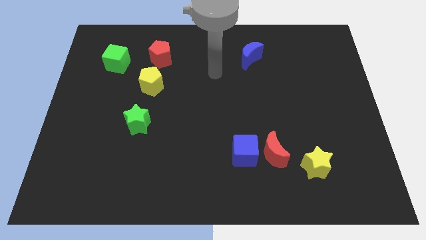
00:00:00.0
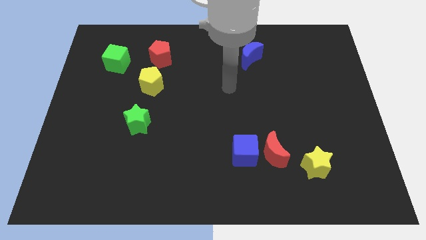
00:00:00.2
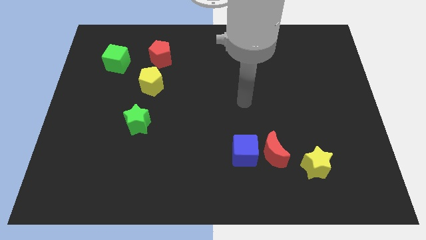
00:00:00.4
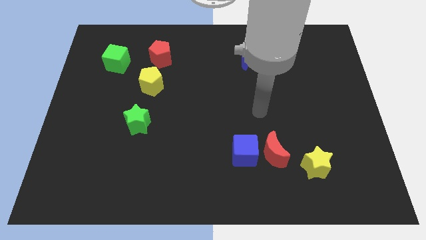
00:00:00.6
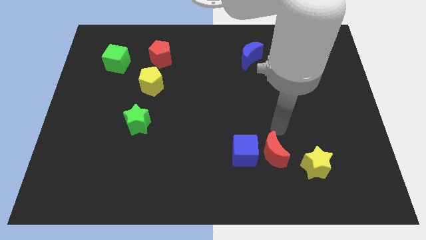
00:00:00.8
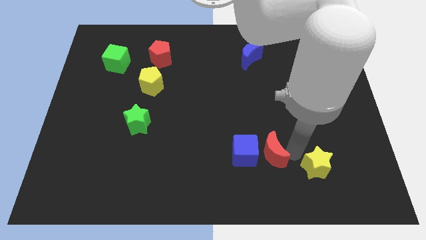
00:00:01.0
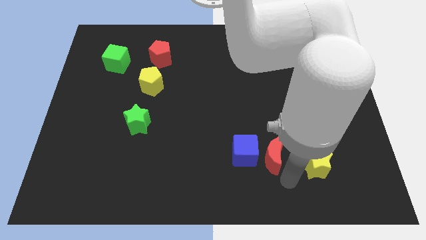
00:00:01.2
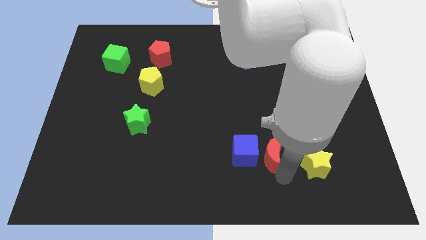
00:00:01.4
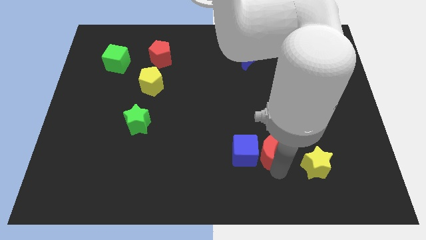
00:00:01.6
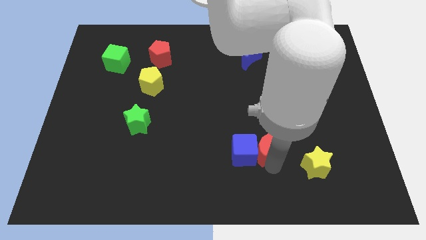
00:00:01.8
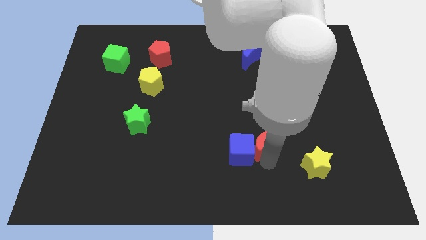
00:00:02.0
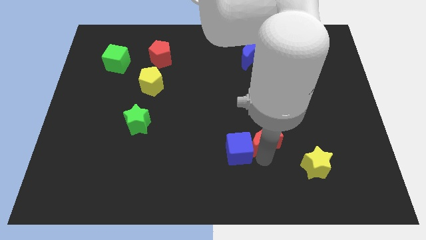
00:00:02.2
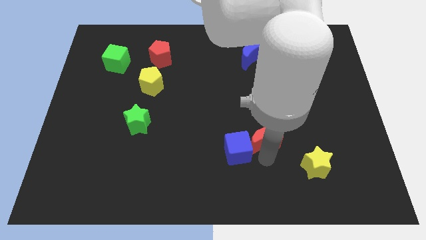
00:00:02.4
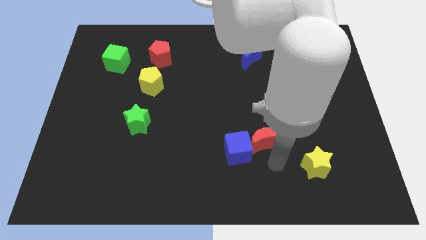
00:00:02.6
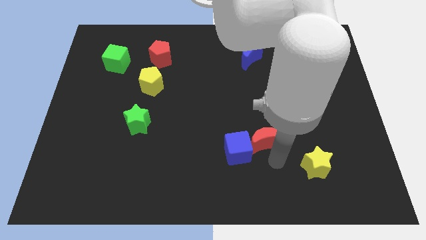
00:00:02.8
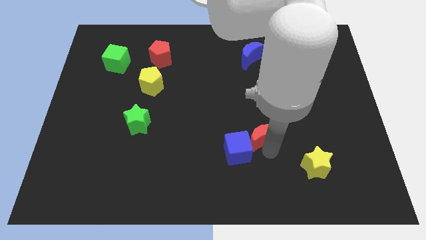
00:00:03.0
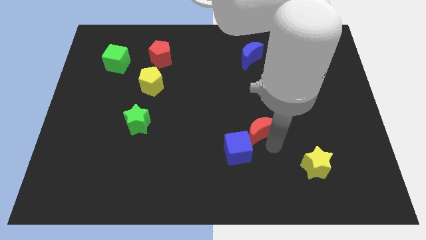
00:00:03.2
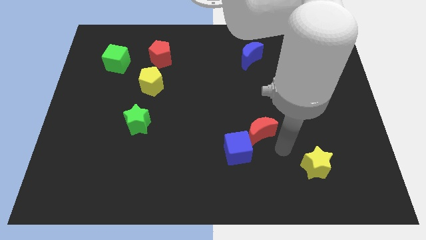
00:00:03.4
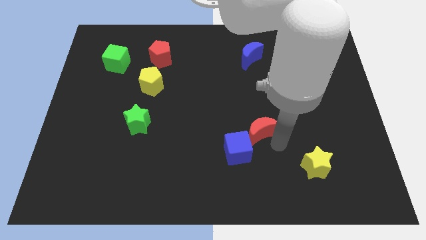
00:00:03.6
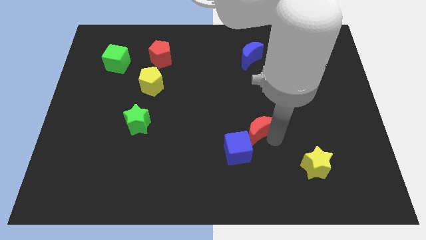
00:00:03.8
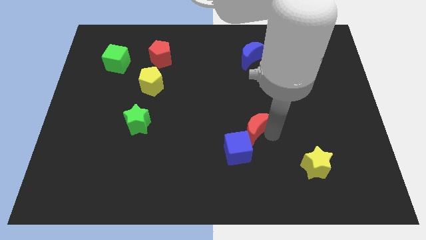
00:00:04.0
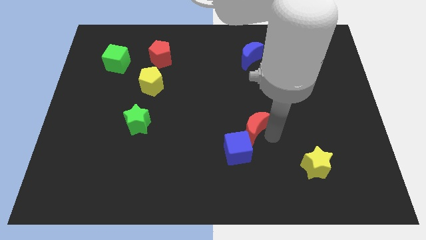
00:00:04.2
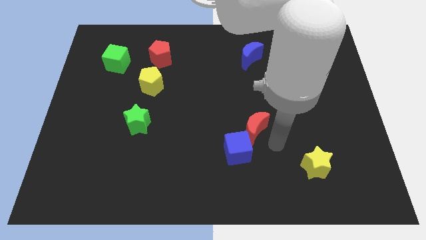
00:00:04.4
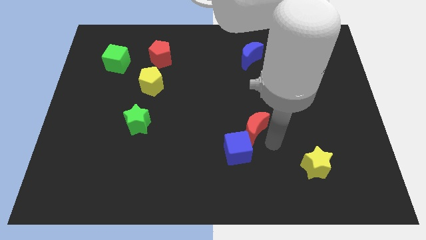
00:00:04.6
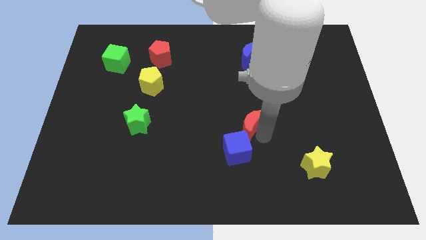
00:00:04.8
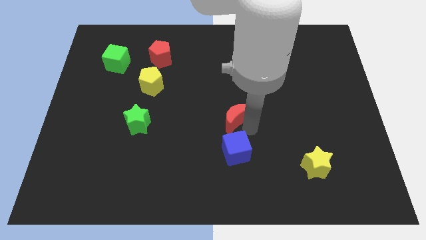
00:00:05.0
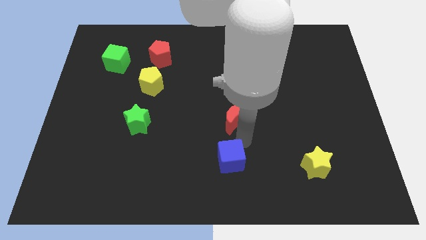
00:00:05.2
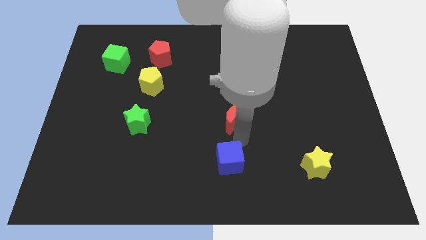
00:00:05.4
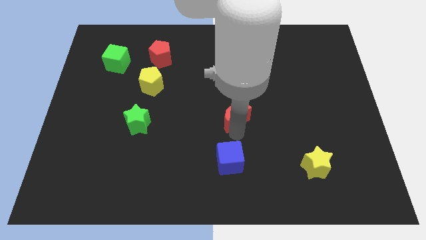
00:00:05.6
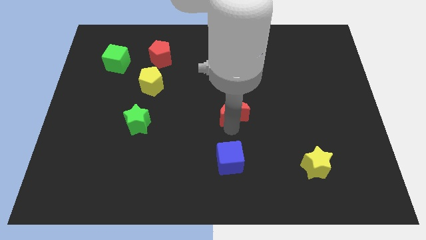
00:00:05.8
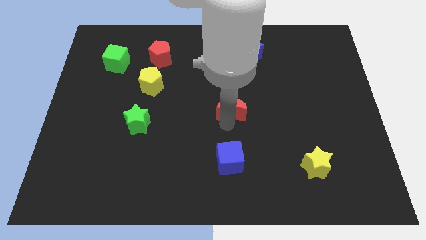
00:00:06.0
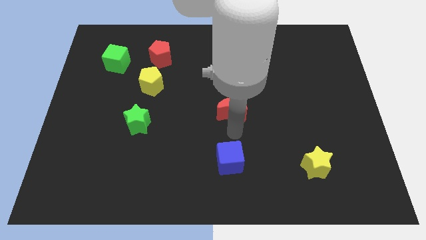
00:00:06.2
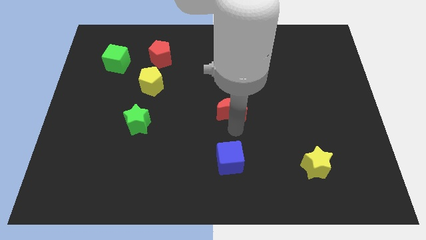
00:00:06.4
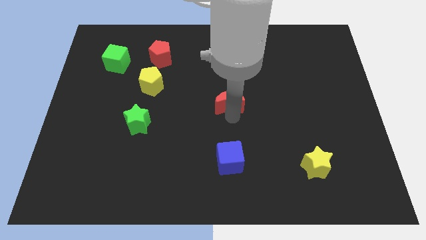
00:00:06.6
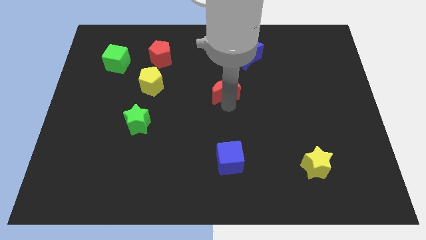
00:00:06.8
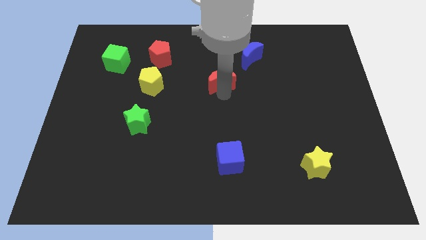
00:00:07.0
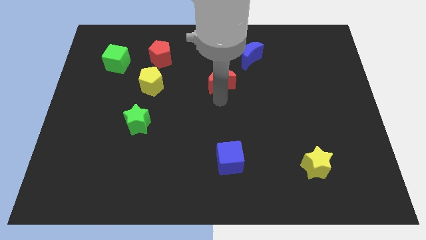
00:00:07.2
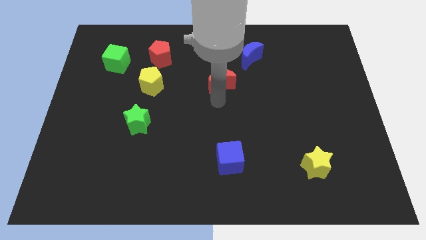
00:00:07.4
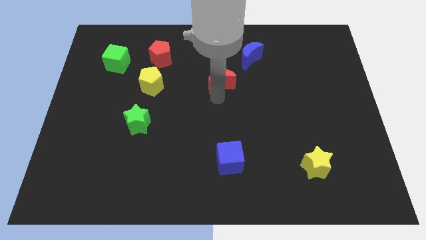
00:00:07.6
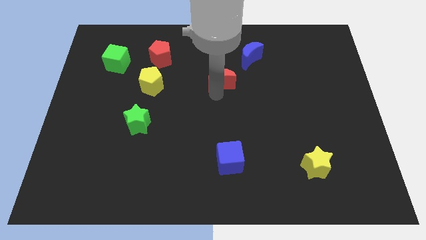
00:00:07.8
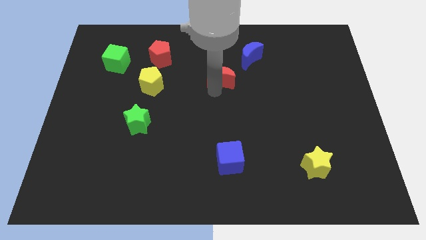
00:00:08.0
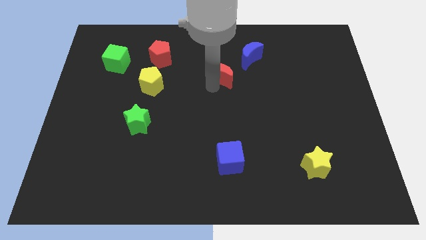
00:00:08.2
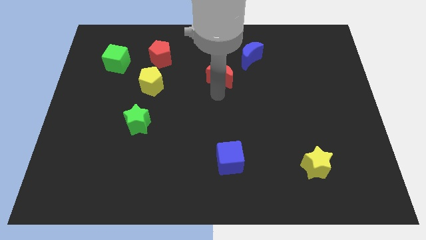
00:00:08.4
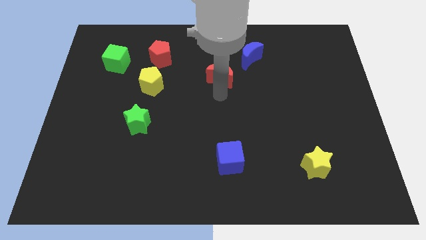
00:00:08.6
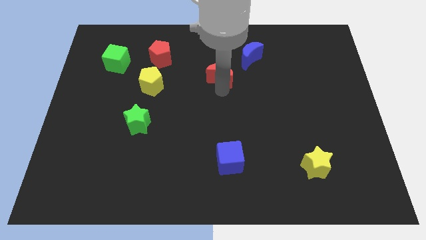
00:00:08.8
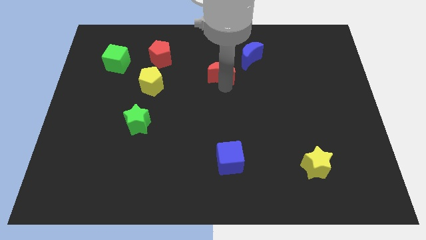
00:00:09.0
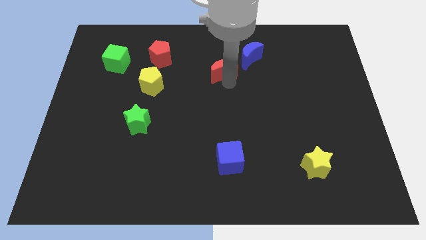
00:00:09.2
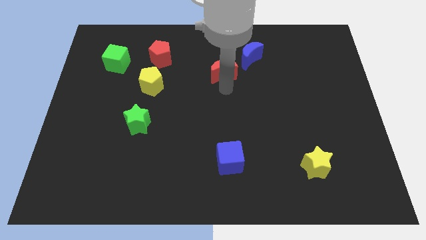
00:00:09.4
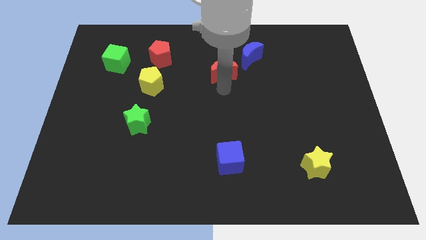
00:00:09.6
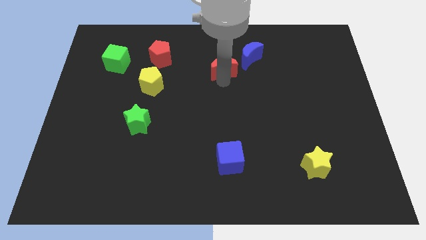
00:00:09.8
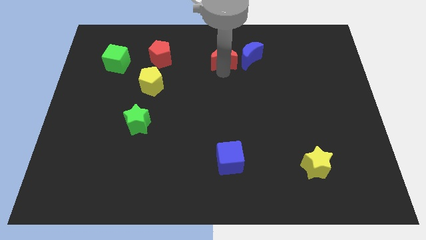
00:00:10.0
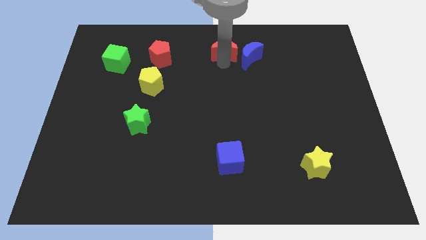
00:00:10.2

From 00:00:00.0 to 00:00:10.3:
move the red moon to the towards your base

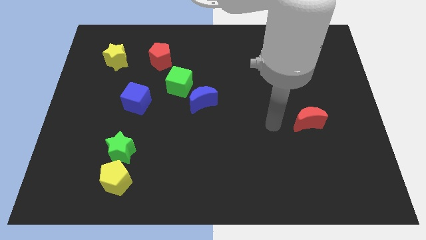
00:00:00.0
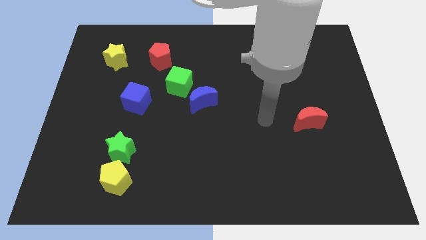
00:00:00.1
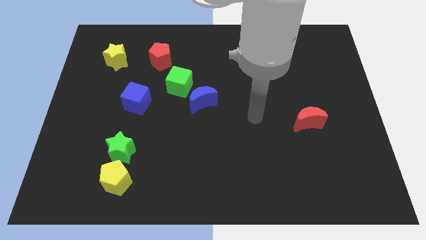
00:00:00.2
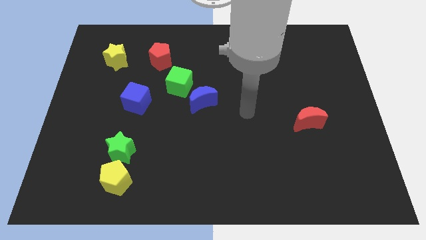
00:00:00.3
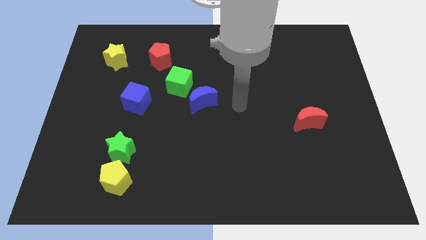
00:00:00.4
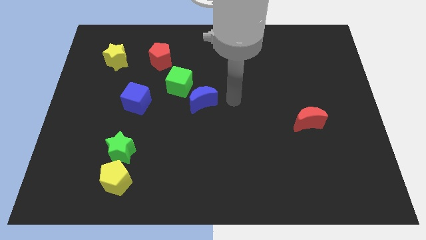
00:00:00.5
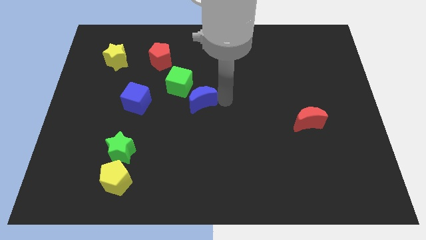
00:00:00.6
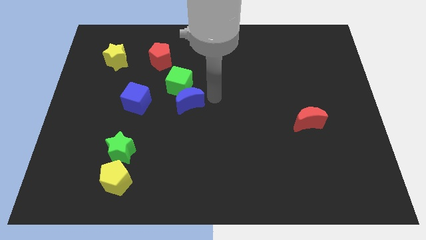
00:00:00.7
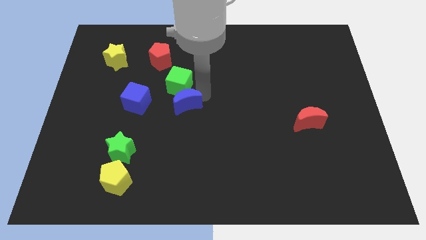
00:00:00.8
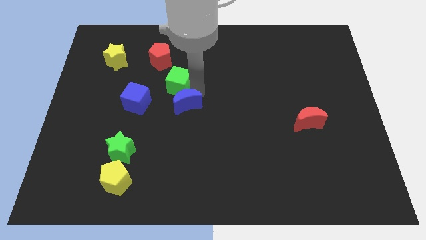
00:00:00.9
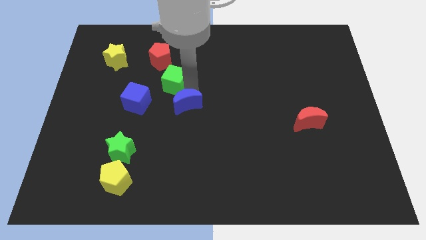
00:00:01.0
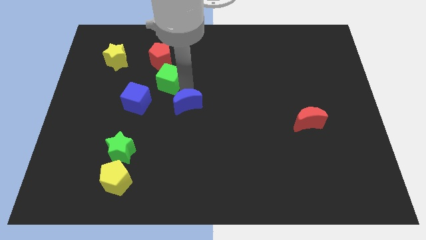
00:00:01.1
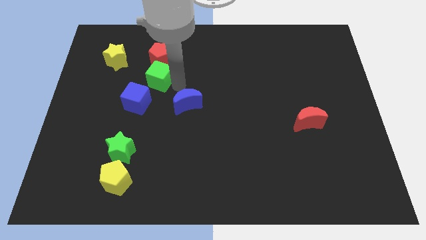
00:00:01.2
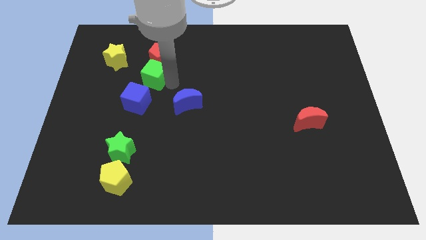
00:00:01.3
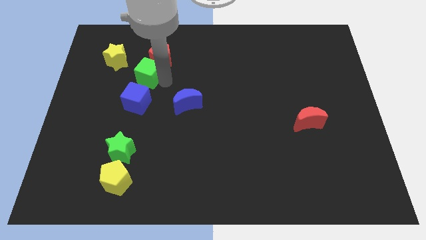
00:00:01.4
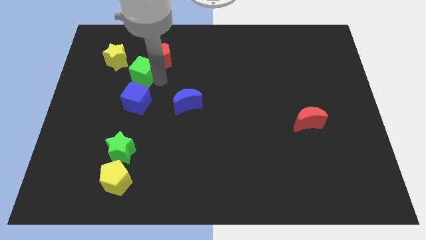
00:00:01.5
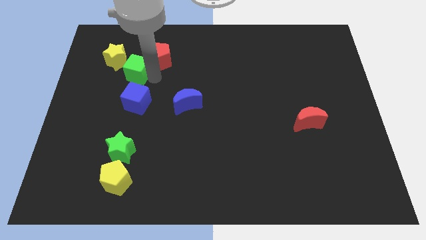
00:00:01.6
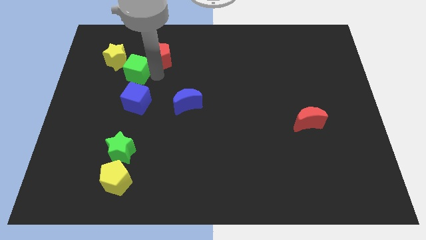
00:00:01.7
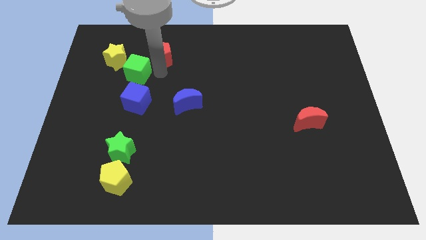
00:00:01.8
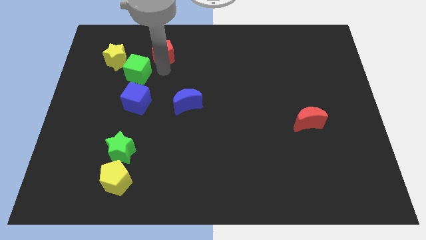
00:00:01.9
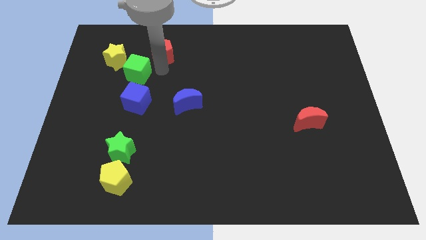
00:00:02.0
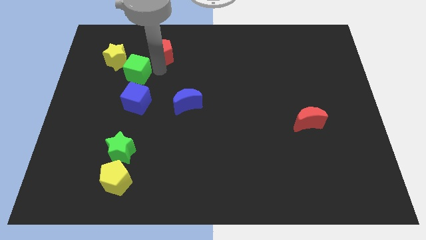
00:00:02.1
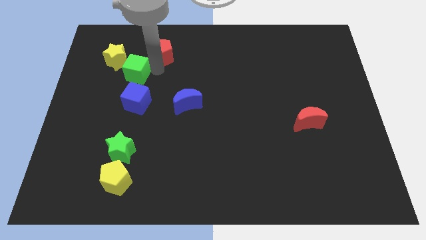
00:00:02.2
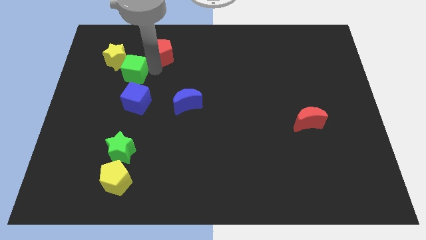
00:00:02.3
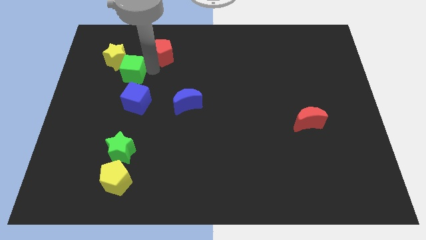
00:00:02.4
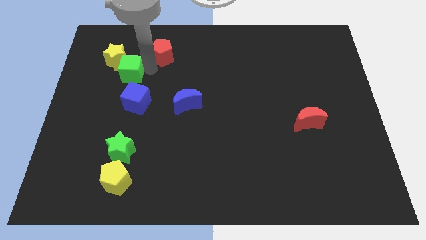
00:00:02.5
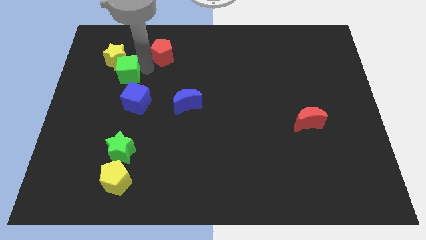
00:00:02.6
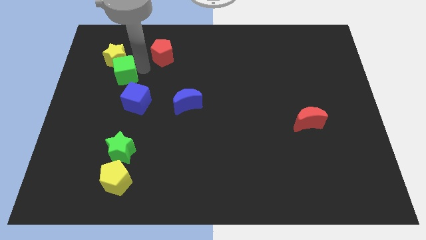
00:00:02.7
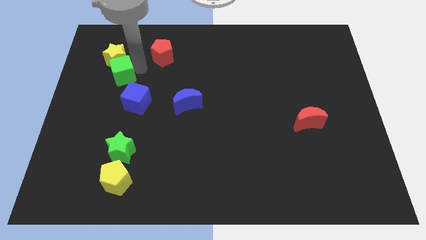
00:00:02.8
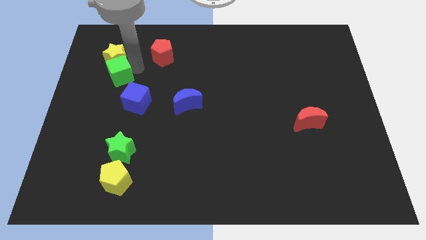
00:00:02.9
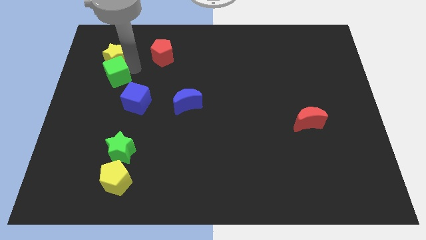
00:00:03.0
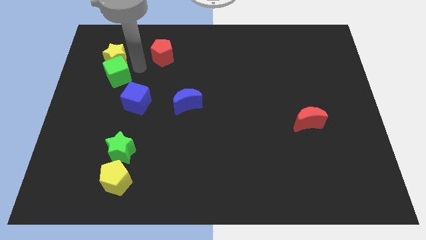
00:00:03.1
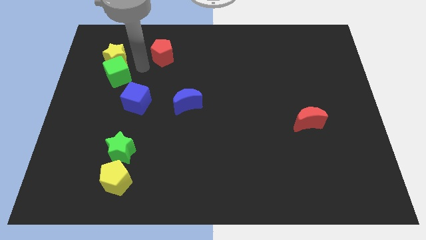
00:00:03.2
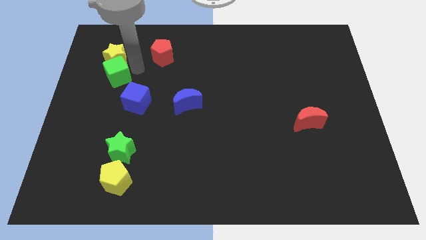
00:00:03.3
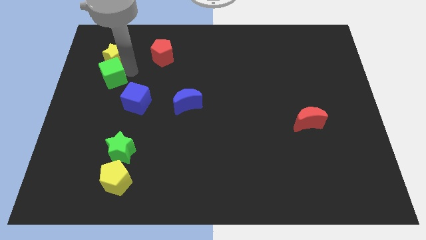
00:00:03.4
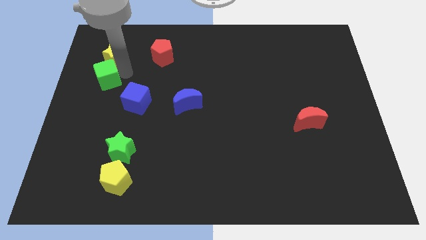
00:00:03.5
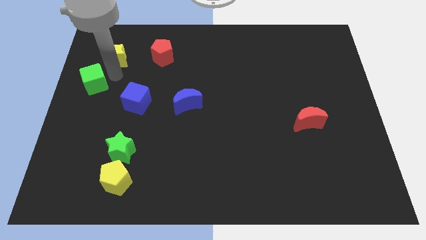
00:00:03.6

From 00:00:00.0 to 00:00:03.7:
put the green cube to the center left
